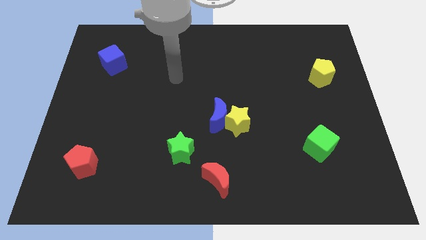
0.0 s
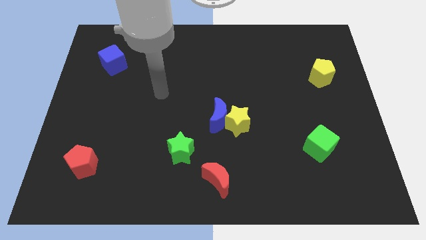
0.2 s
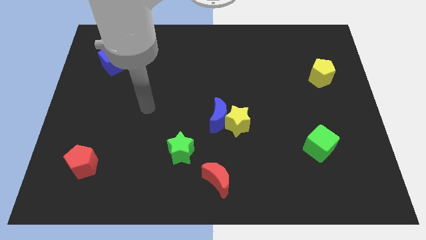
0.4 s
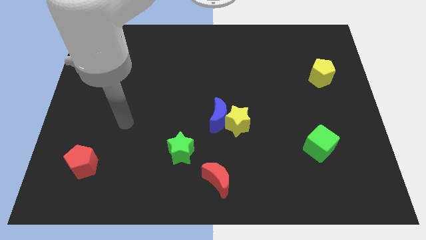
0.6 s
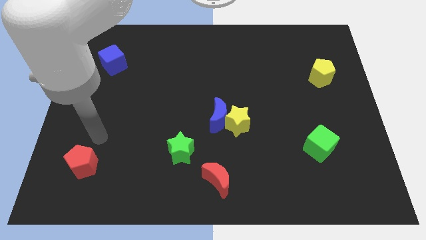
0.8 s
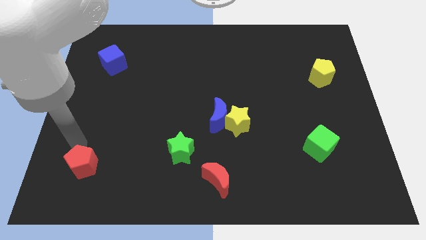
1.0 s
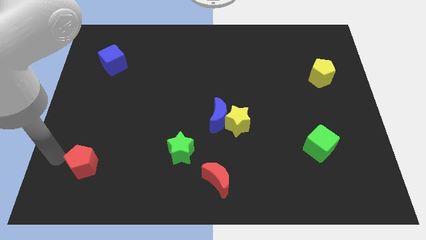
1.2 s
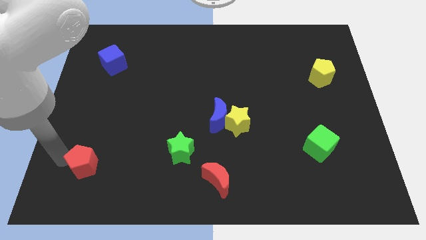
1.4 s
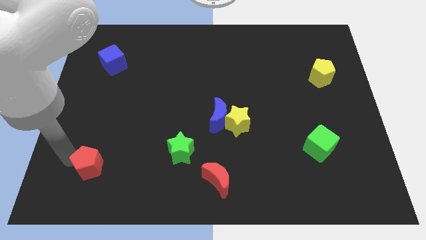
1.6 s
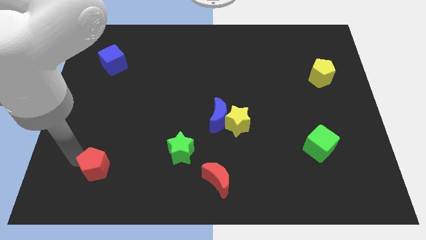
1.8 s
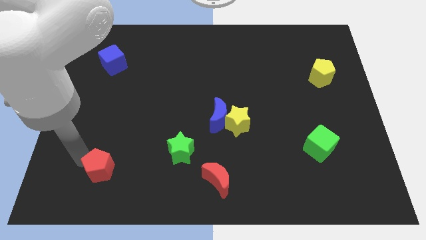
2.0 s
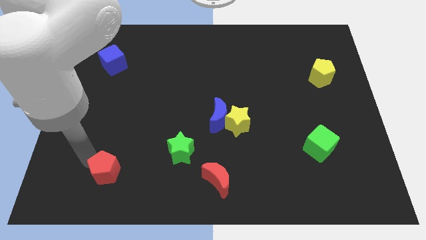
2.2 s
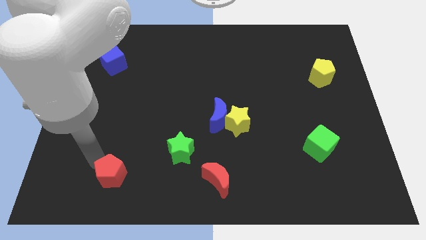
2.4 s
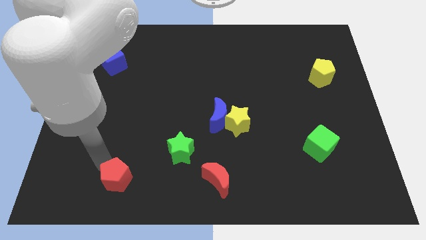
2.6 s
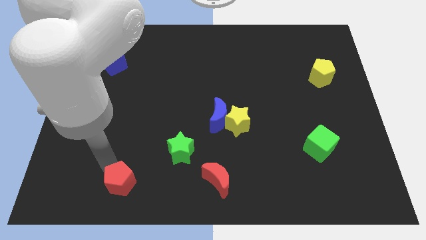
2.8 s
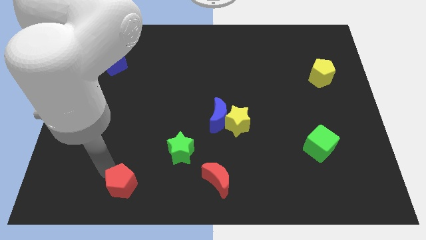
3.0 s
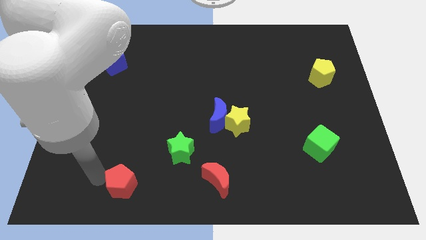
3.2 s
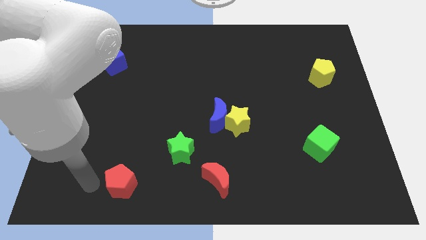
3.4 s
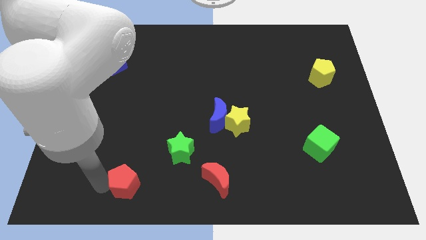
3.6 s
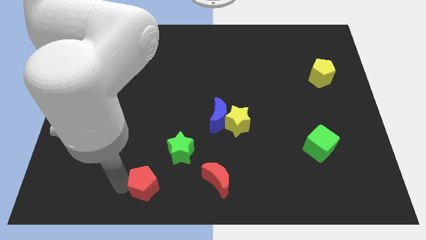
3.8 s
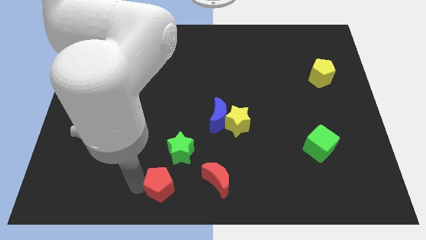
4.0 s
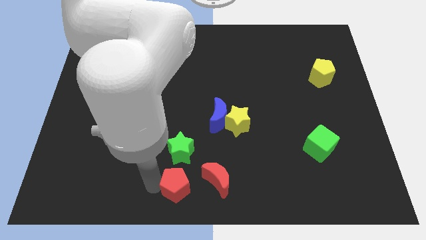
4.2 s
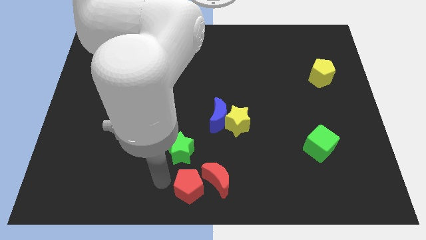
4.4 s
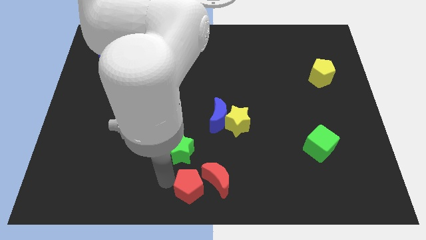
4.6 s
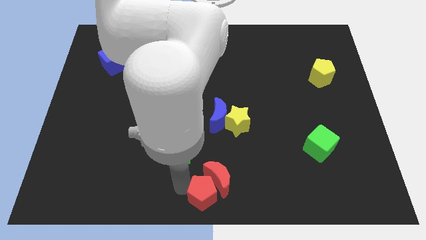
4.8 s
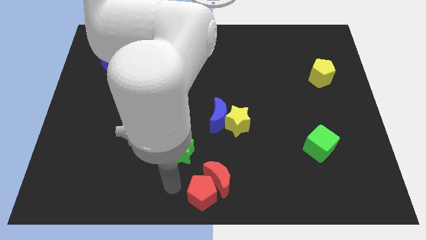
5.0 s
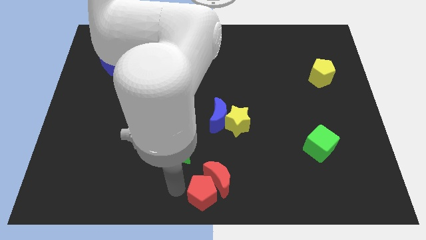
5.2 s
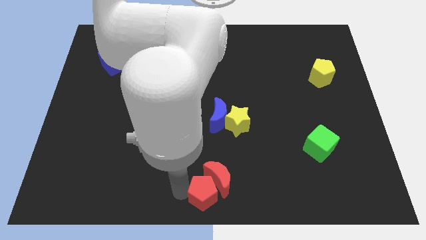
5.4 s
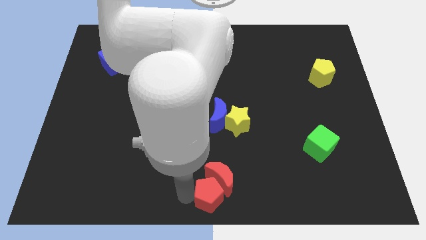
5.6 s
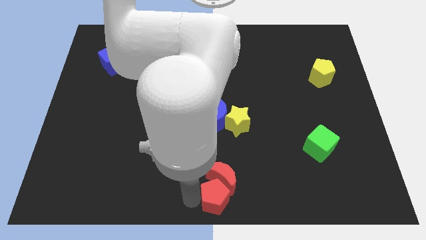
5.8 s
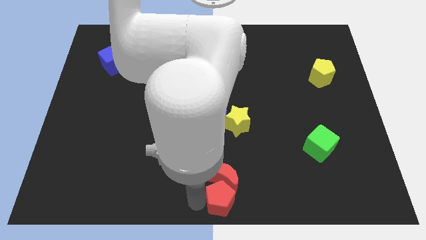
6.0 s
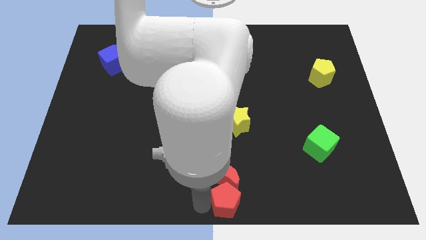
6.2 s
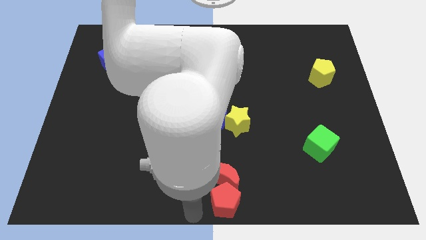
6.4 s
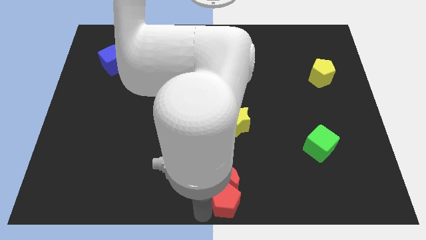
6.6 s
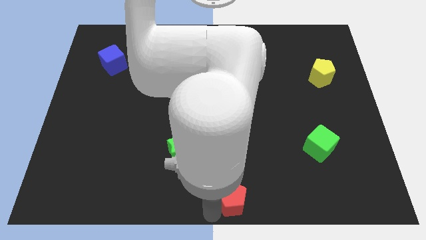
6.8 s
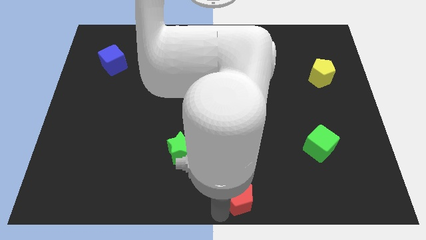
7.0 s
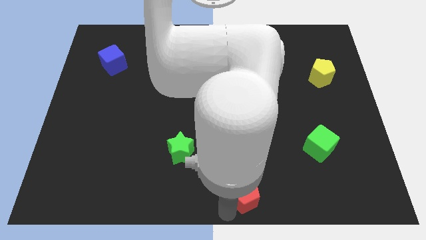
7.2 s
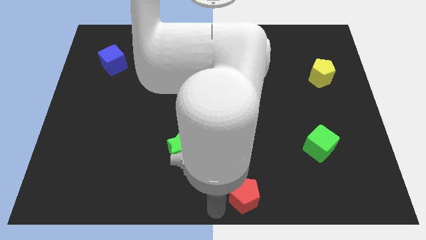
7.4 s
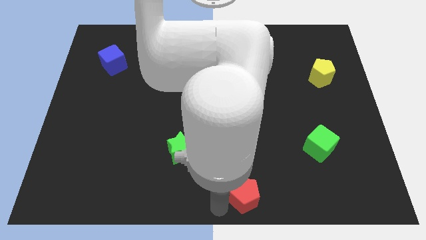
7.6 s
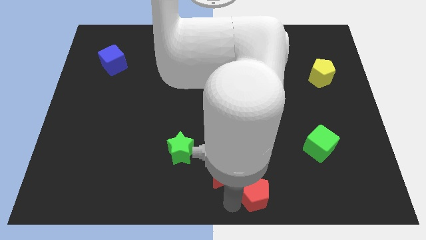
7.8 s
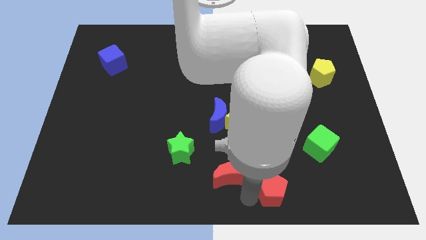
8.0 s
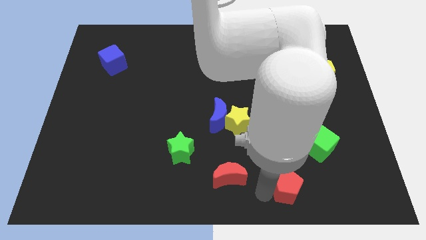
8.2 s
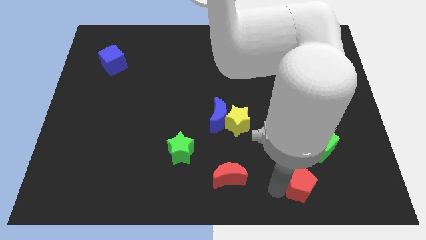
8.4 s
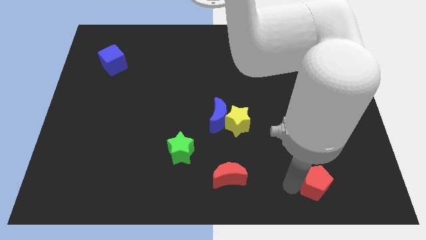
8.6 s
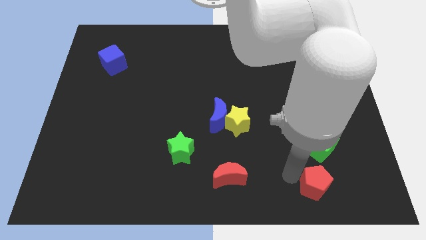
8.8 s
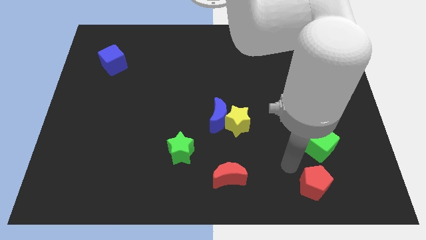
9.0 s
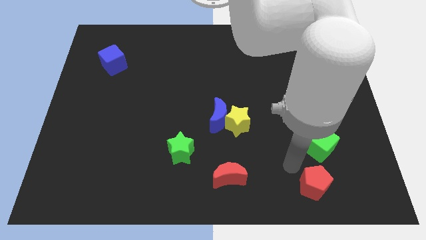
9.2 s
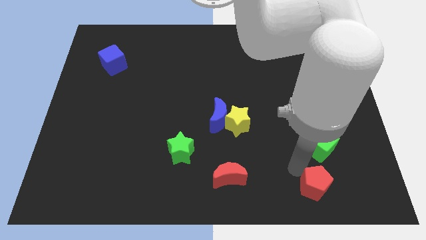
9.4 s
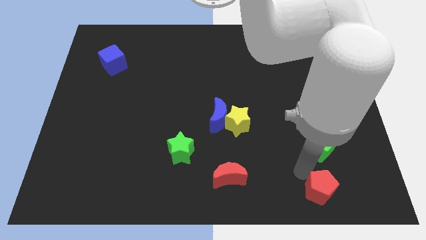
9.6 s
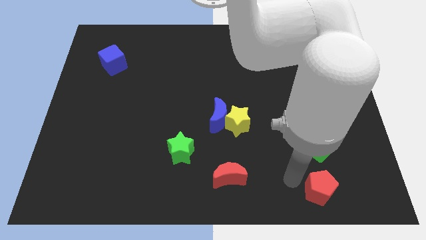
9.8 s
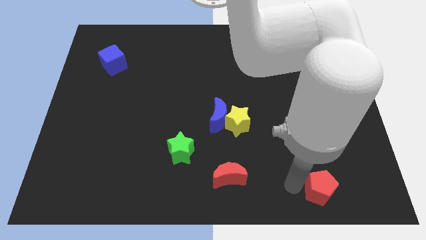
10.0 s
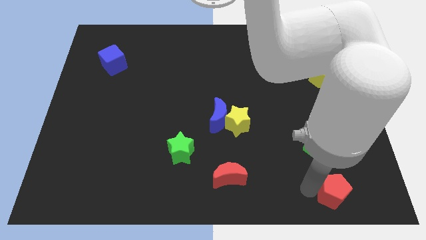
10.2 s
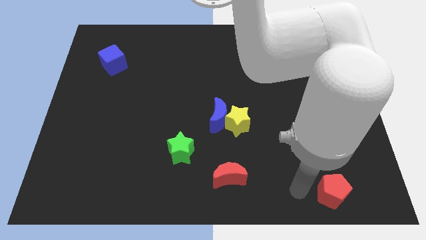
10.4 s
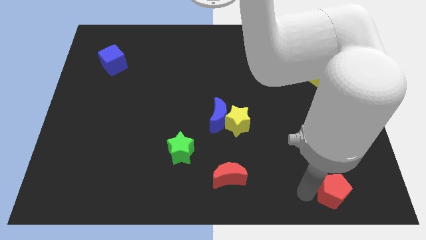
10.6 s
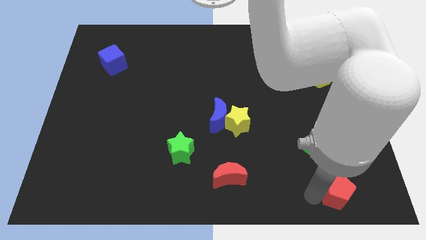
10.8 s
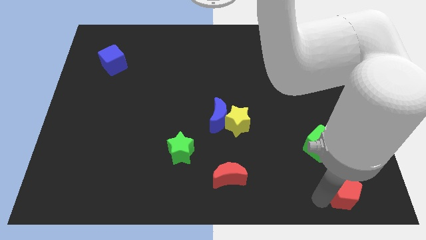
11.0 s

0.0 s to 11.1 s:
slide the red pentagon to the bottom right corner

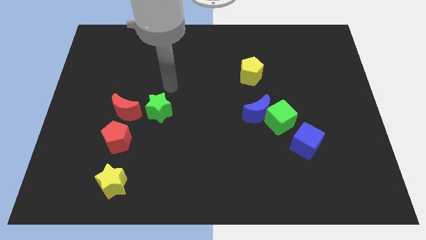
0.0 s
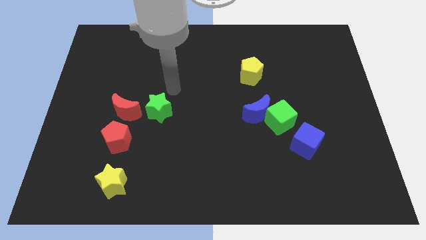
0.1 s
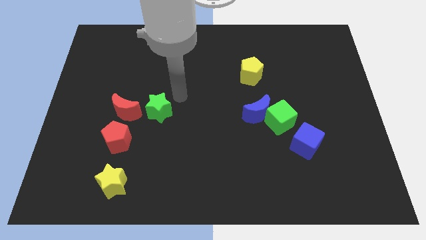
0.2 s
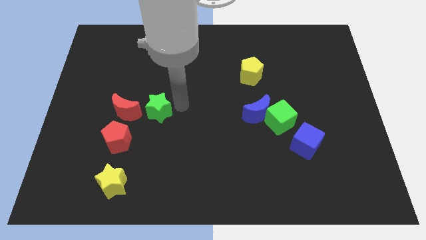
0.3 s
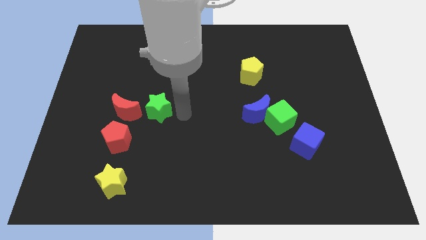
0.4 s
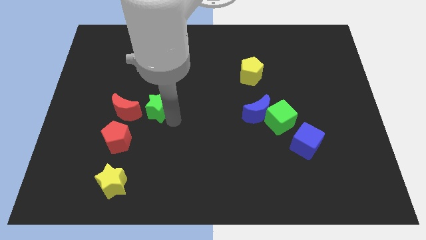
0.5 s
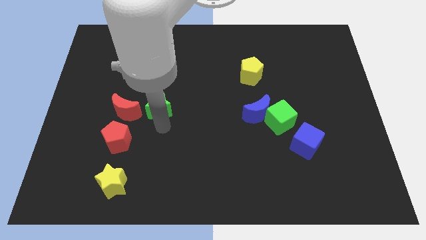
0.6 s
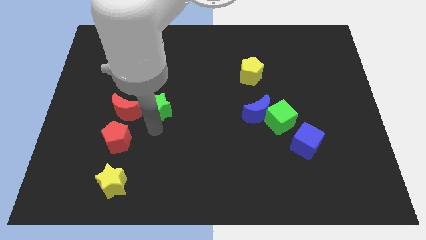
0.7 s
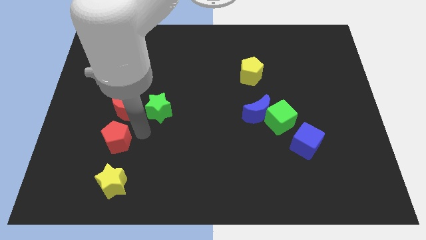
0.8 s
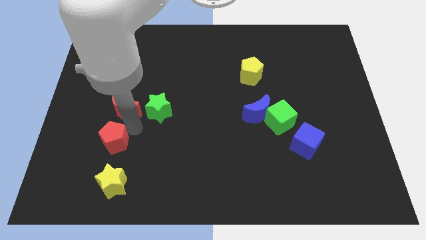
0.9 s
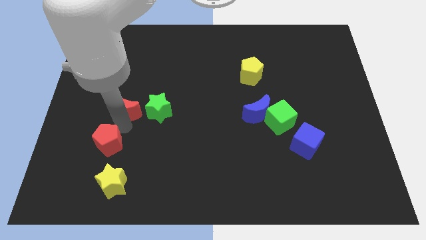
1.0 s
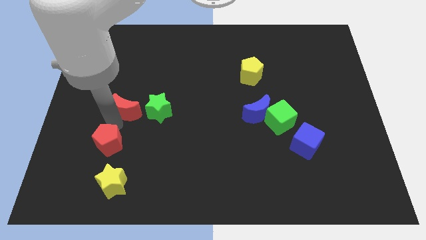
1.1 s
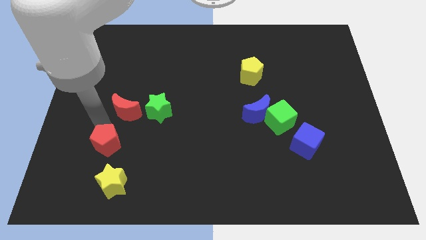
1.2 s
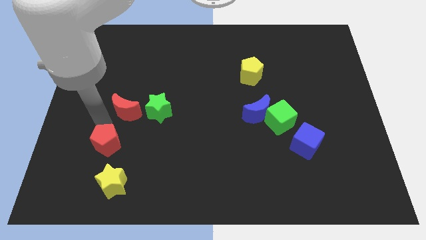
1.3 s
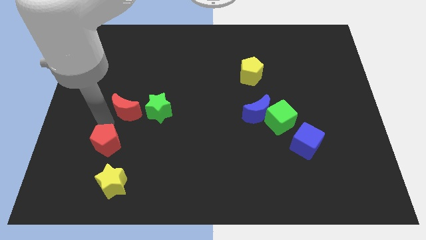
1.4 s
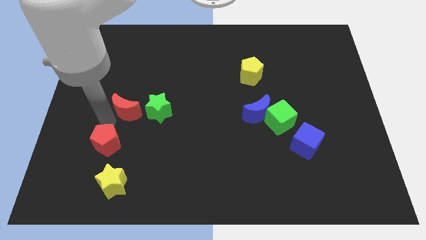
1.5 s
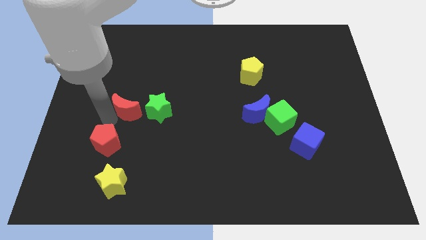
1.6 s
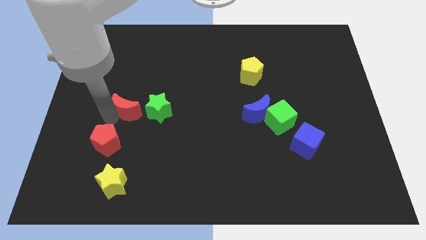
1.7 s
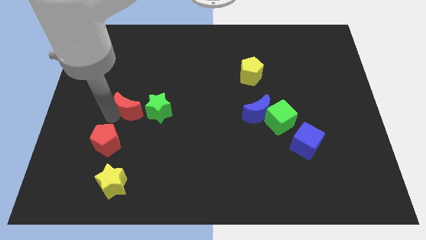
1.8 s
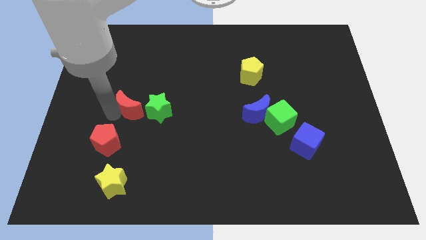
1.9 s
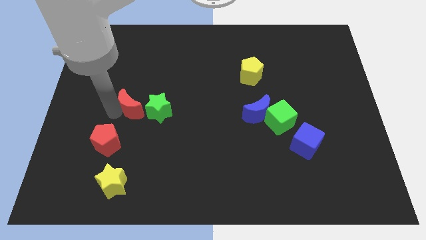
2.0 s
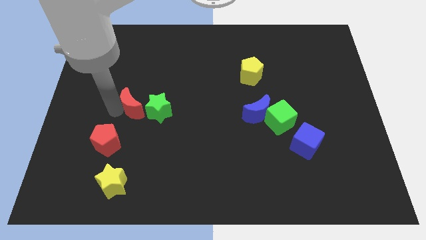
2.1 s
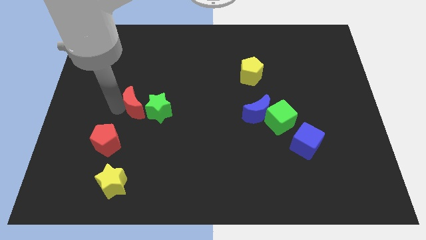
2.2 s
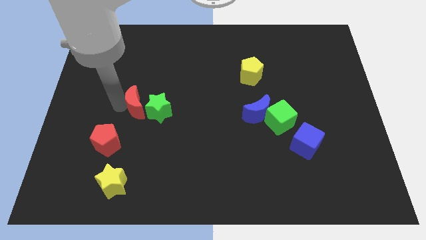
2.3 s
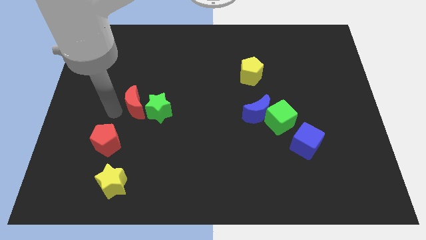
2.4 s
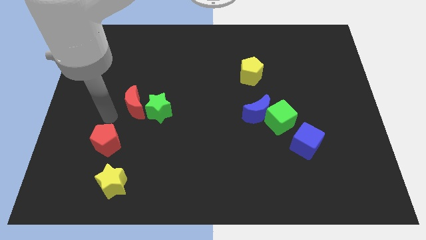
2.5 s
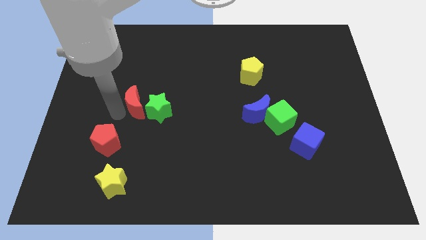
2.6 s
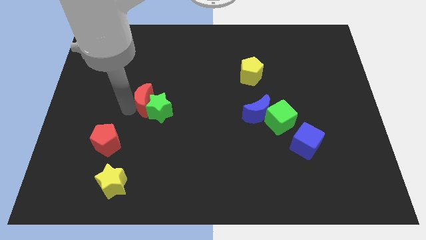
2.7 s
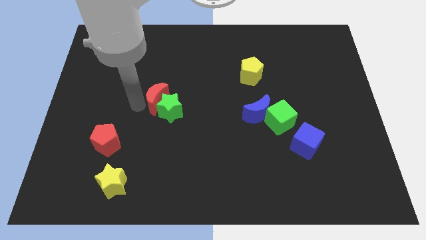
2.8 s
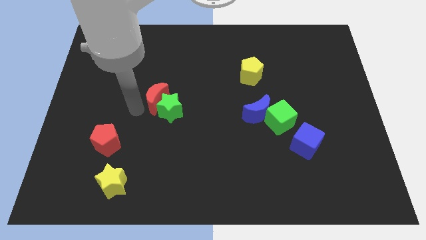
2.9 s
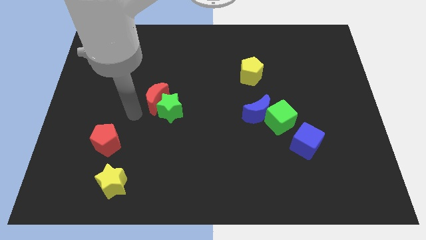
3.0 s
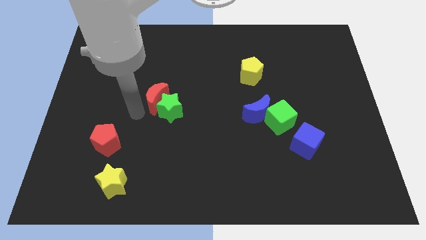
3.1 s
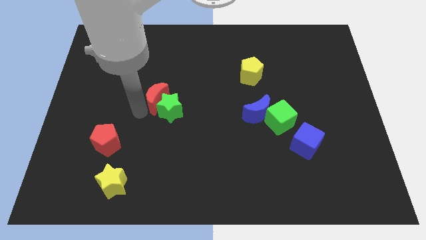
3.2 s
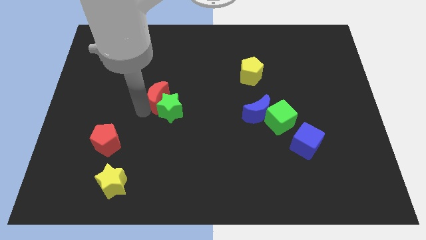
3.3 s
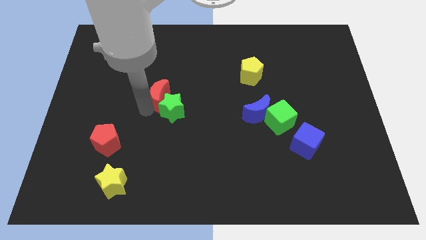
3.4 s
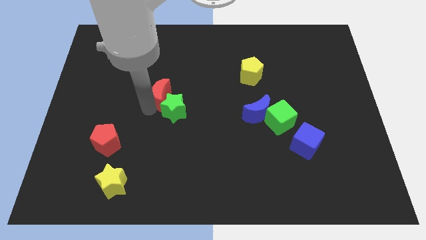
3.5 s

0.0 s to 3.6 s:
push the red moon to the center
